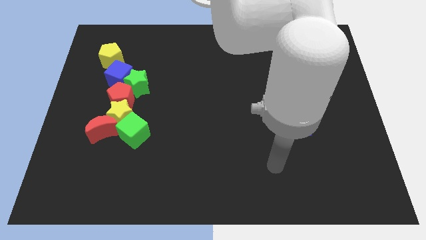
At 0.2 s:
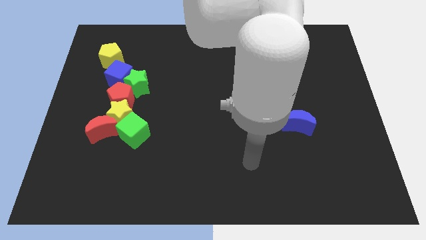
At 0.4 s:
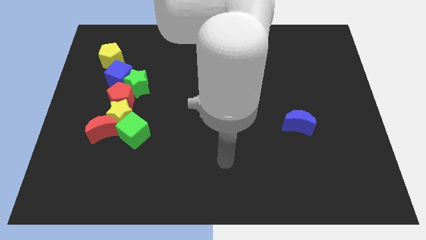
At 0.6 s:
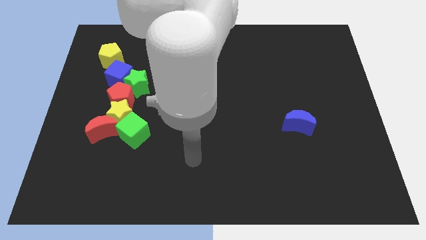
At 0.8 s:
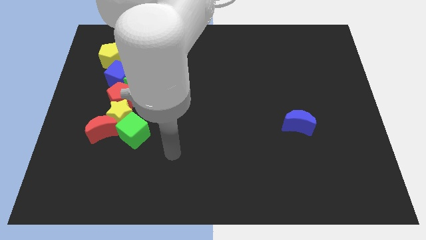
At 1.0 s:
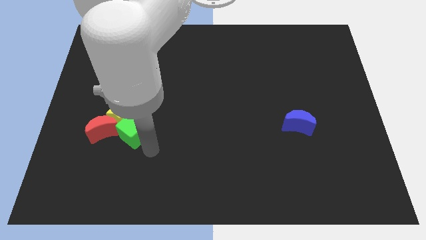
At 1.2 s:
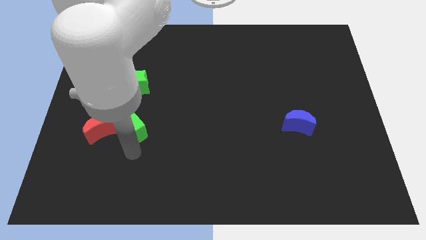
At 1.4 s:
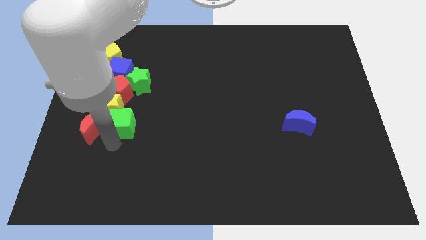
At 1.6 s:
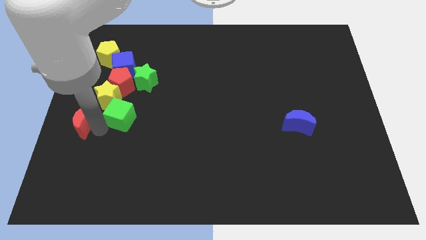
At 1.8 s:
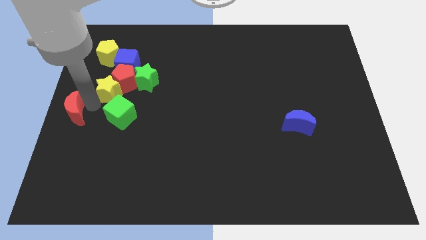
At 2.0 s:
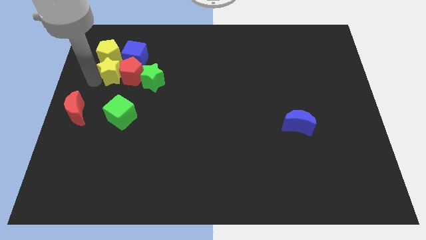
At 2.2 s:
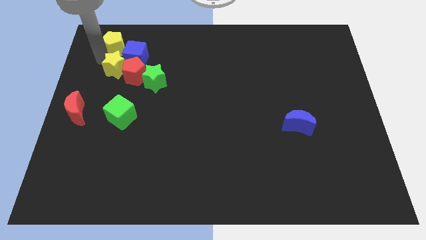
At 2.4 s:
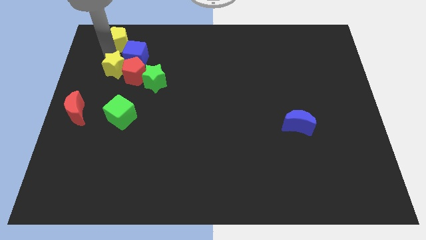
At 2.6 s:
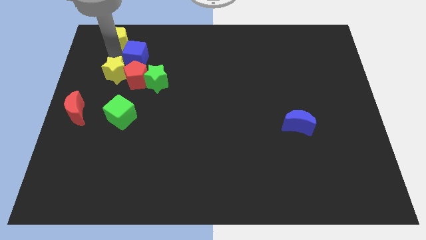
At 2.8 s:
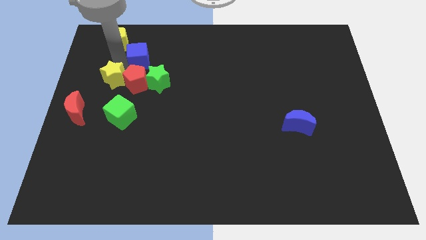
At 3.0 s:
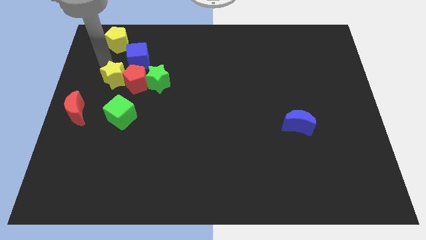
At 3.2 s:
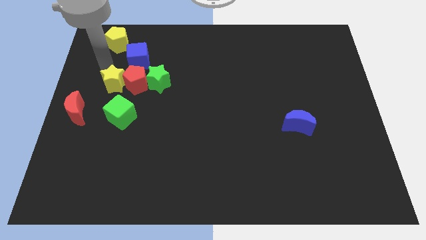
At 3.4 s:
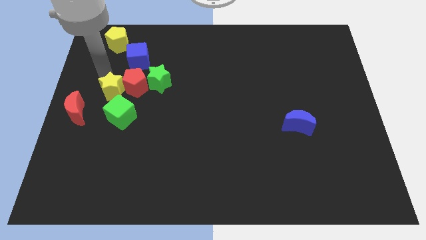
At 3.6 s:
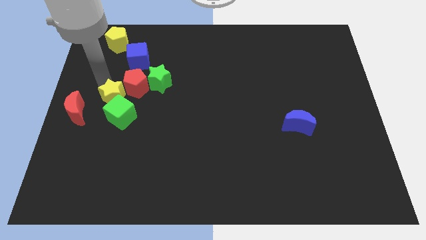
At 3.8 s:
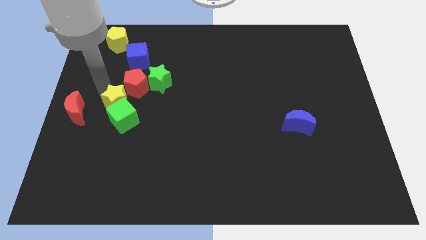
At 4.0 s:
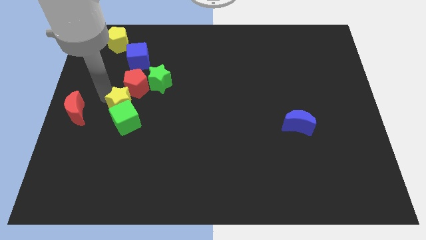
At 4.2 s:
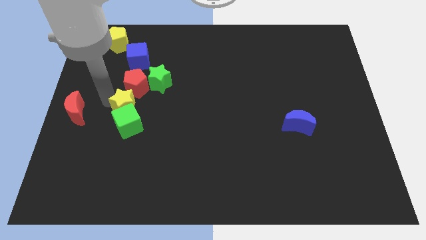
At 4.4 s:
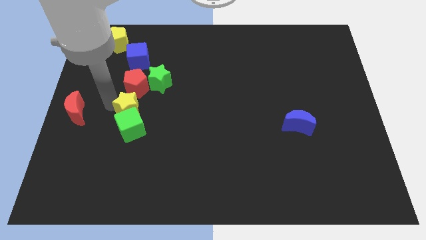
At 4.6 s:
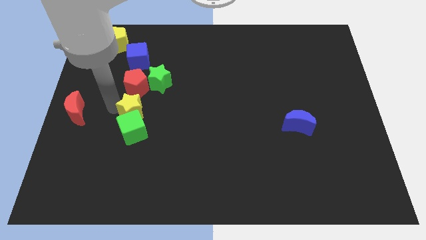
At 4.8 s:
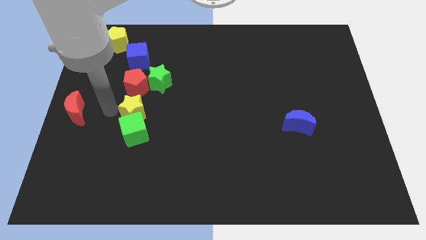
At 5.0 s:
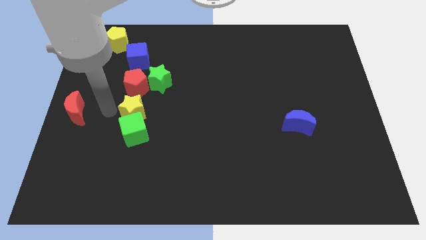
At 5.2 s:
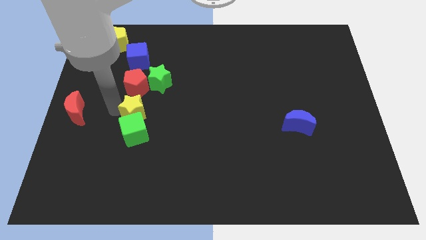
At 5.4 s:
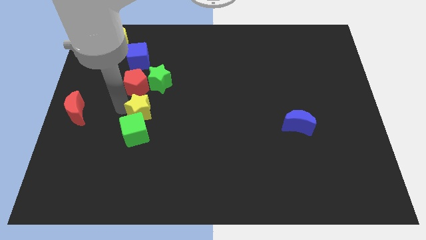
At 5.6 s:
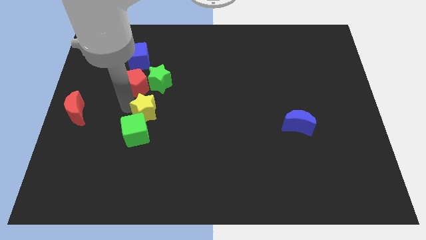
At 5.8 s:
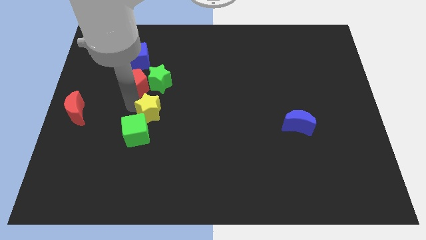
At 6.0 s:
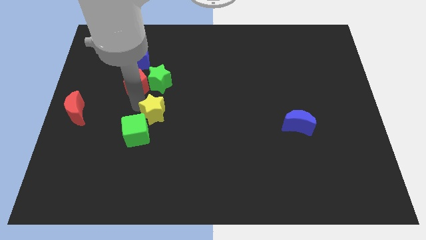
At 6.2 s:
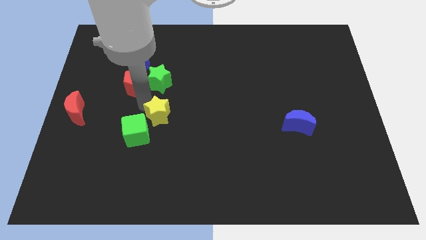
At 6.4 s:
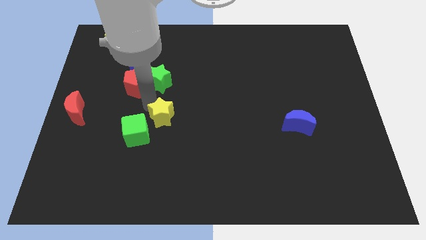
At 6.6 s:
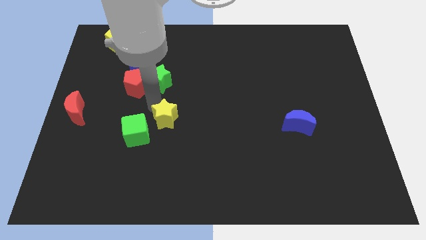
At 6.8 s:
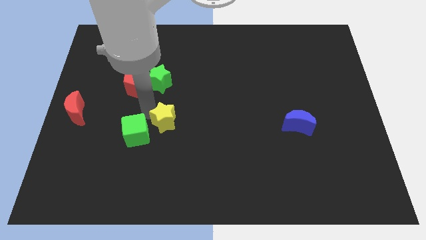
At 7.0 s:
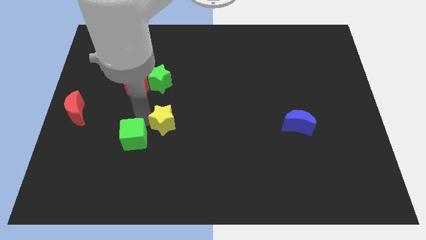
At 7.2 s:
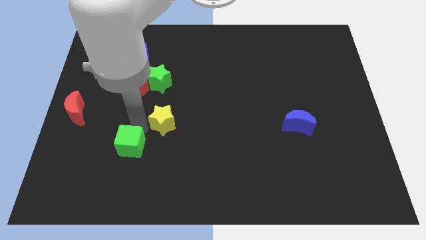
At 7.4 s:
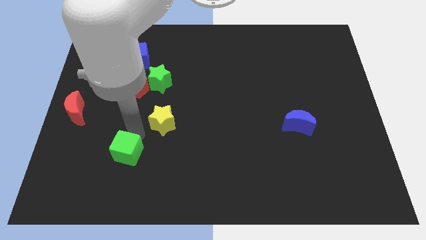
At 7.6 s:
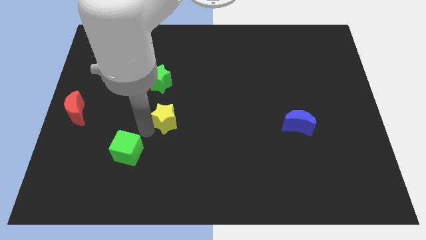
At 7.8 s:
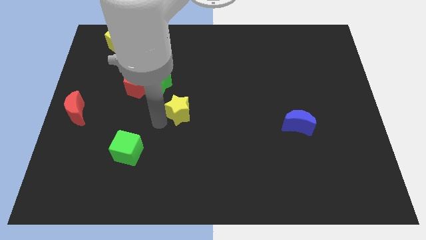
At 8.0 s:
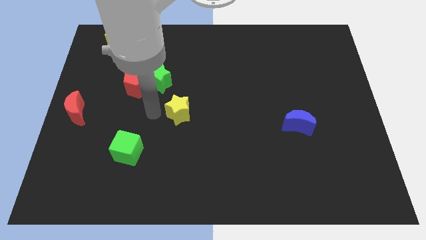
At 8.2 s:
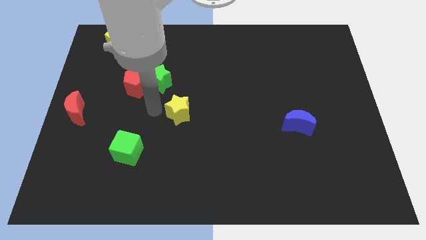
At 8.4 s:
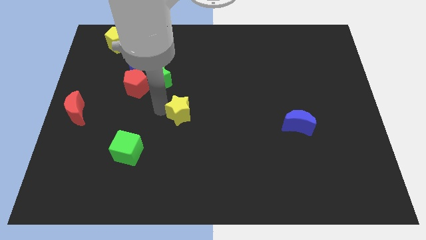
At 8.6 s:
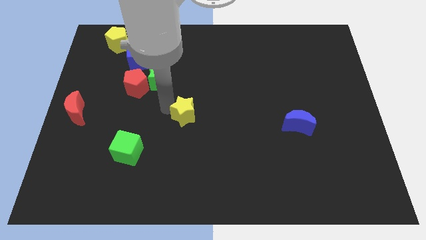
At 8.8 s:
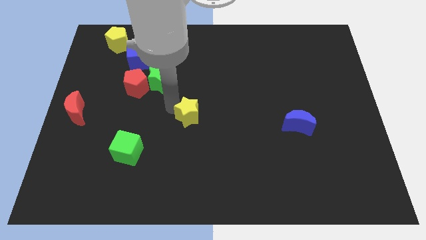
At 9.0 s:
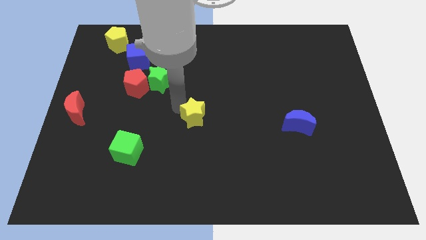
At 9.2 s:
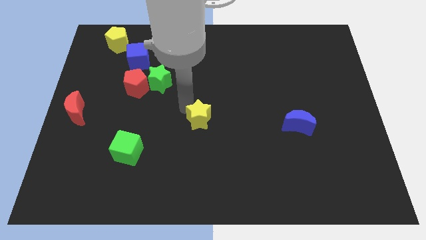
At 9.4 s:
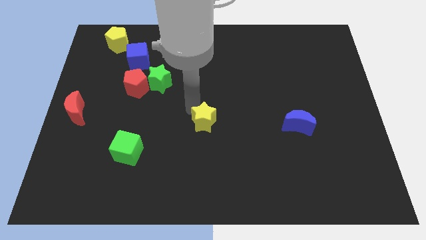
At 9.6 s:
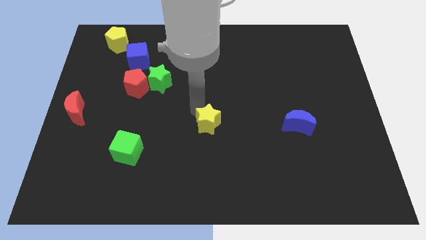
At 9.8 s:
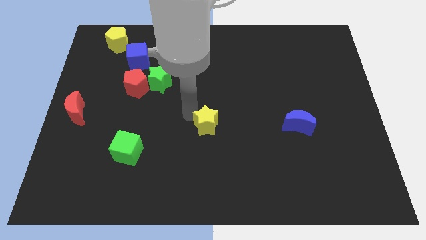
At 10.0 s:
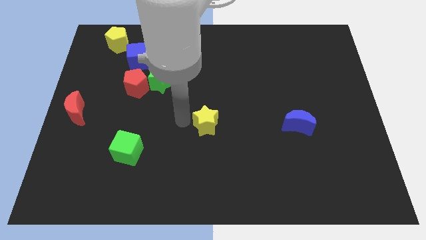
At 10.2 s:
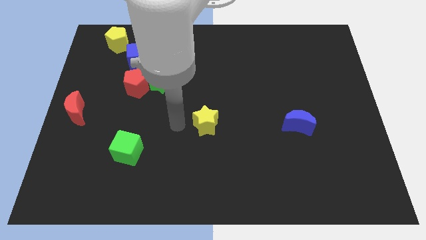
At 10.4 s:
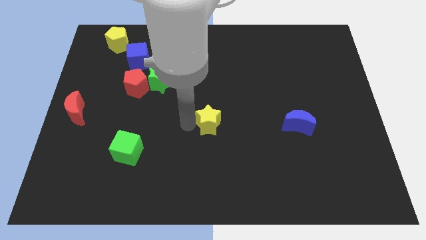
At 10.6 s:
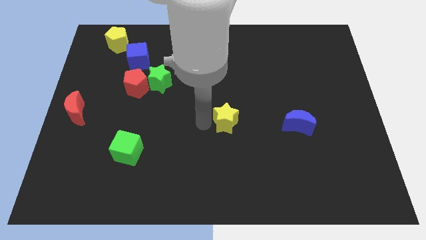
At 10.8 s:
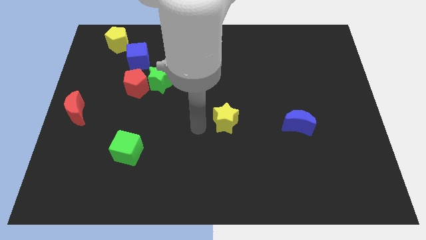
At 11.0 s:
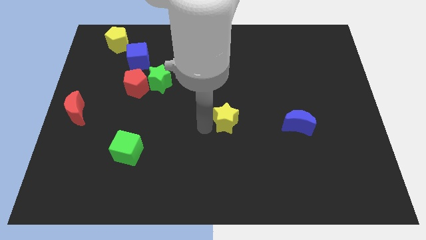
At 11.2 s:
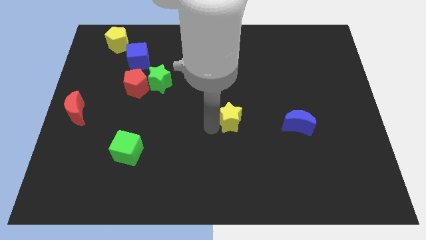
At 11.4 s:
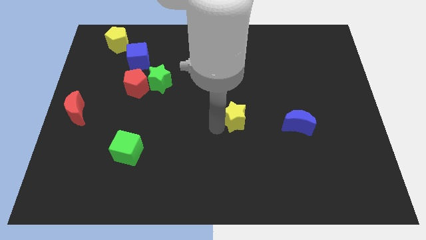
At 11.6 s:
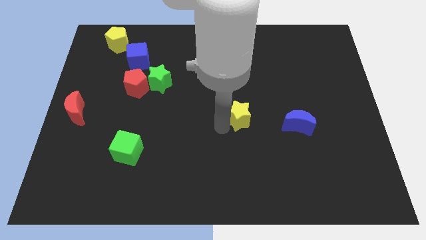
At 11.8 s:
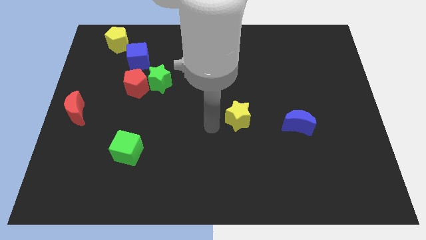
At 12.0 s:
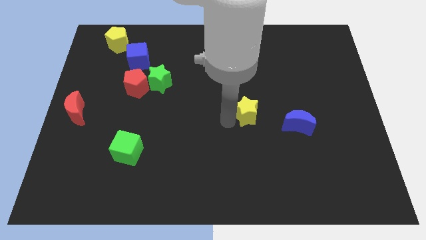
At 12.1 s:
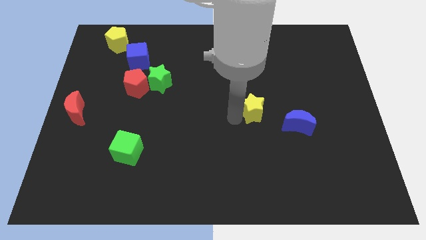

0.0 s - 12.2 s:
push the yellow star to the top left of the blue moon

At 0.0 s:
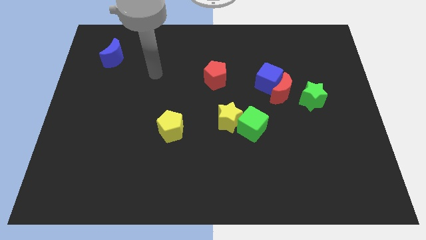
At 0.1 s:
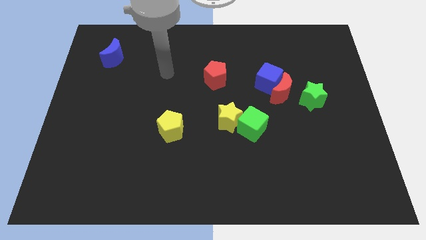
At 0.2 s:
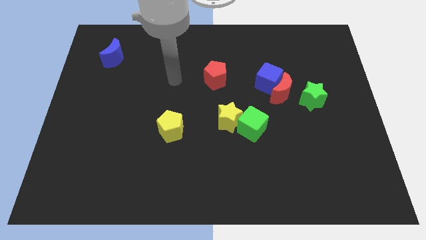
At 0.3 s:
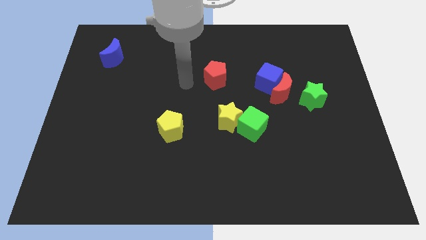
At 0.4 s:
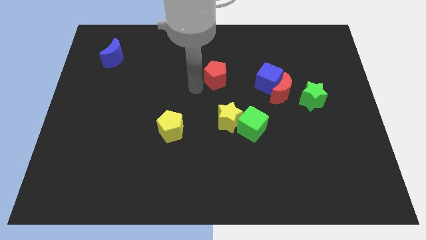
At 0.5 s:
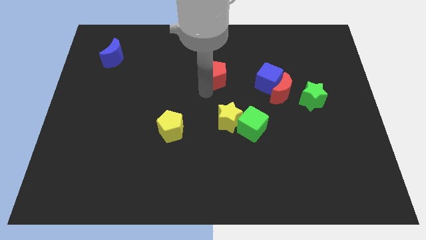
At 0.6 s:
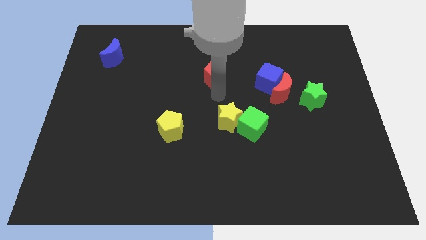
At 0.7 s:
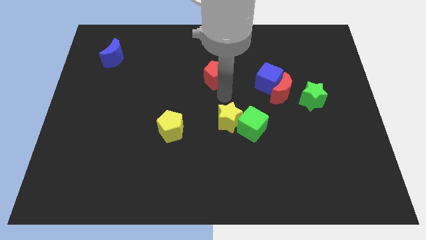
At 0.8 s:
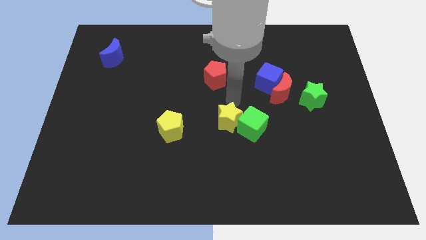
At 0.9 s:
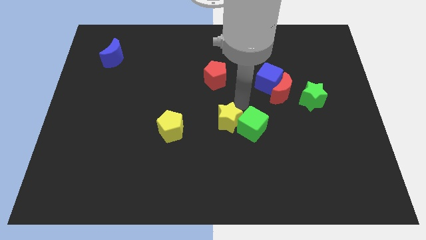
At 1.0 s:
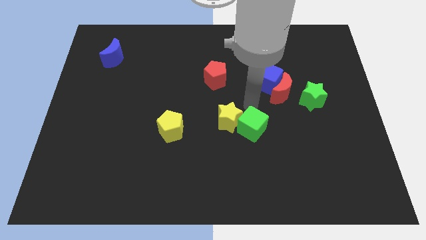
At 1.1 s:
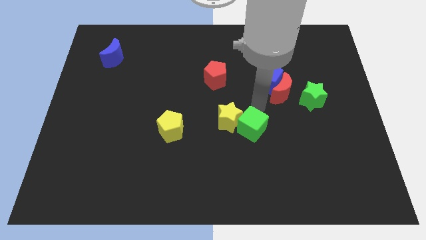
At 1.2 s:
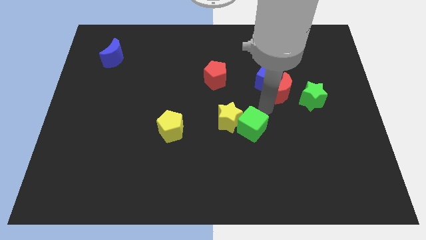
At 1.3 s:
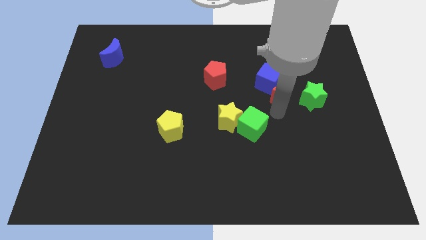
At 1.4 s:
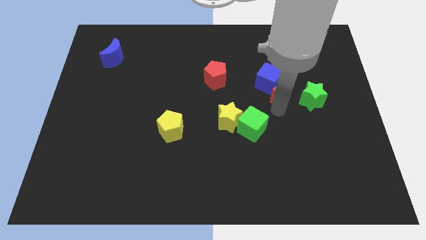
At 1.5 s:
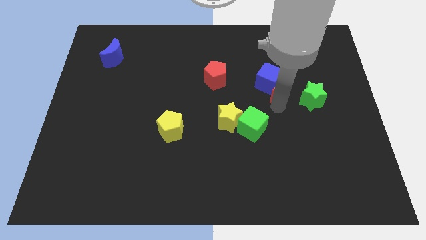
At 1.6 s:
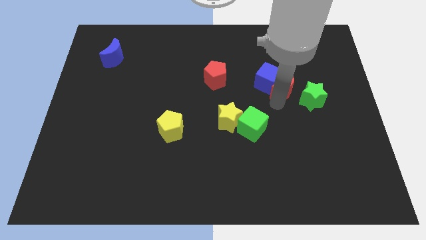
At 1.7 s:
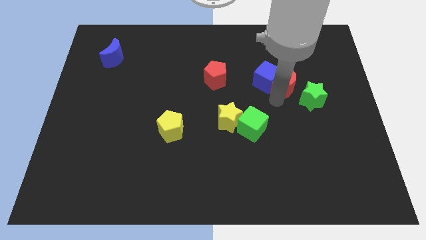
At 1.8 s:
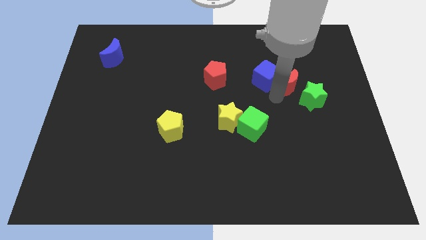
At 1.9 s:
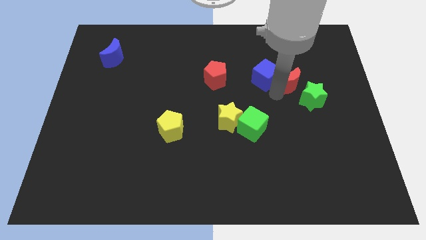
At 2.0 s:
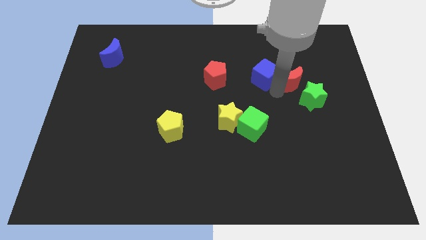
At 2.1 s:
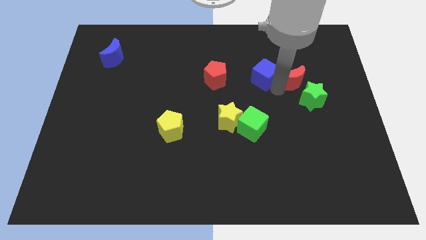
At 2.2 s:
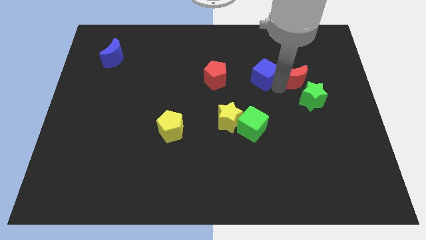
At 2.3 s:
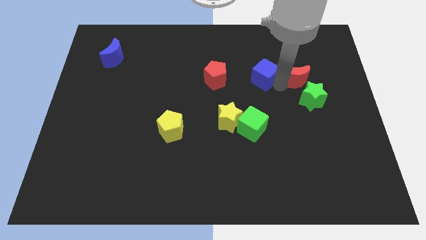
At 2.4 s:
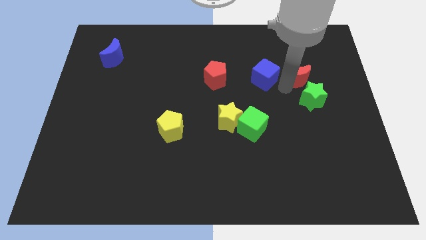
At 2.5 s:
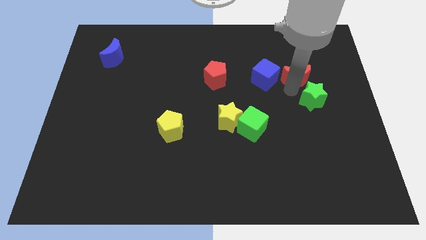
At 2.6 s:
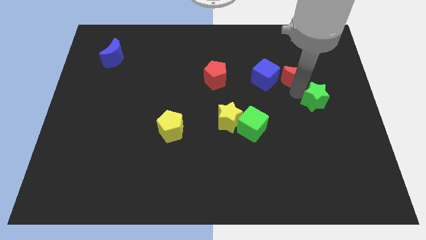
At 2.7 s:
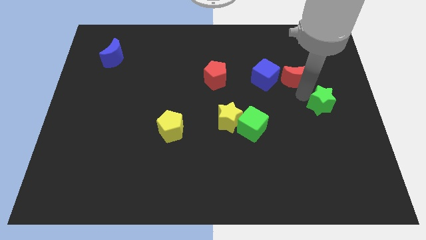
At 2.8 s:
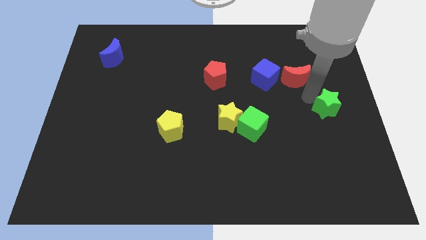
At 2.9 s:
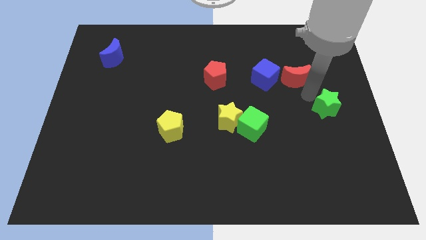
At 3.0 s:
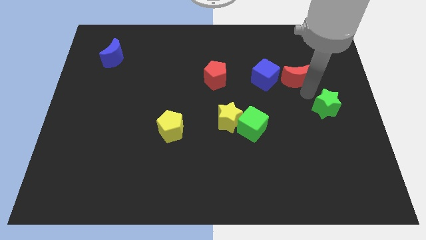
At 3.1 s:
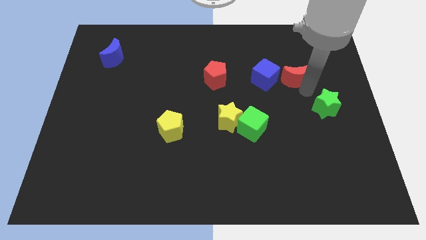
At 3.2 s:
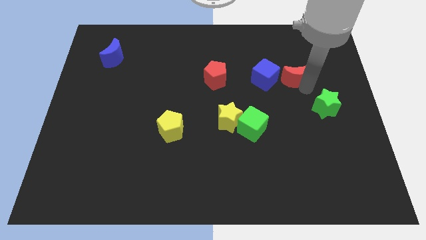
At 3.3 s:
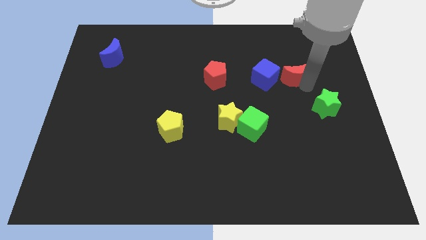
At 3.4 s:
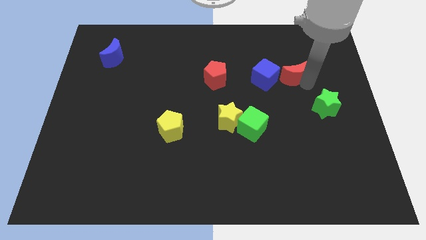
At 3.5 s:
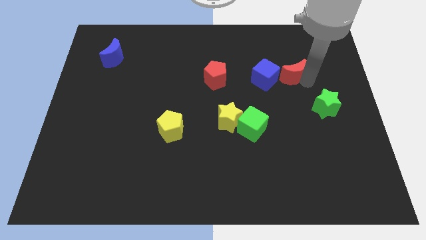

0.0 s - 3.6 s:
put the red moon to the top right side of the blue cube
